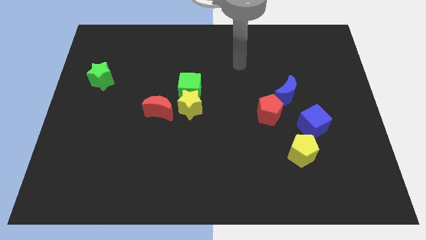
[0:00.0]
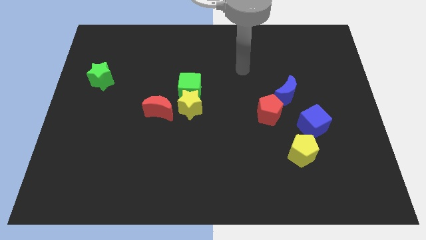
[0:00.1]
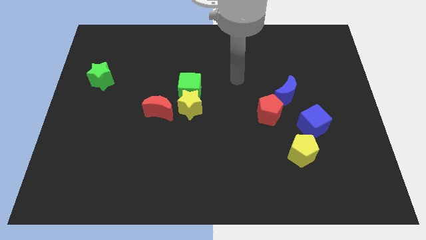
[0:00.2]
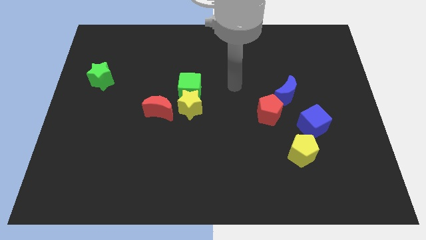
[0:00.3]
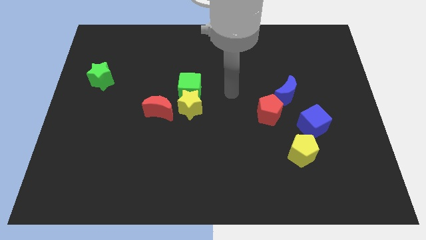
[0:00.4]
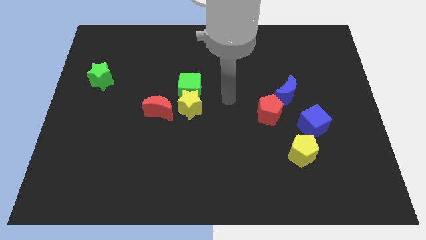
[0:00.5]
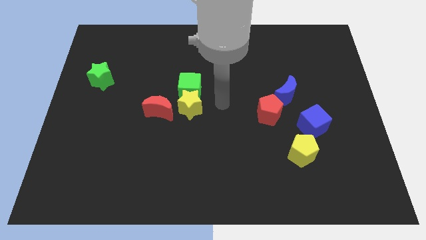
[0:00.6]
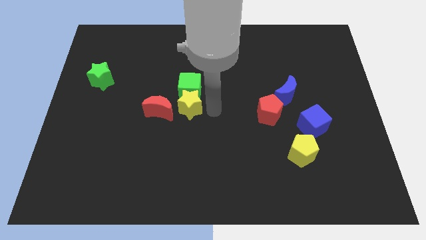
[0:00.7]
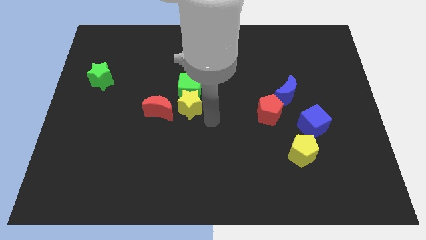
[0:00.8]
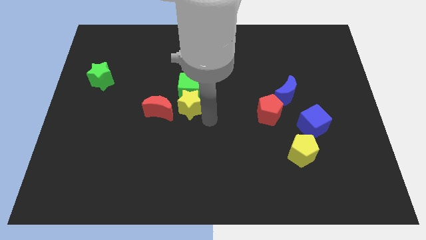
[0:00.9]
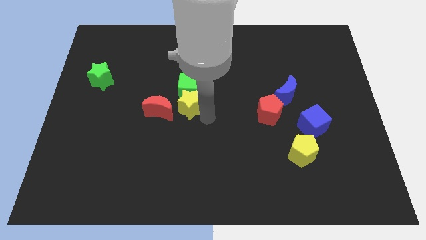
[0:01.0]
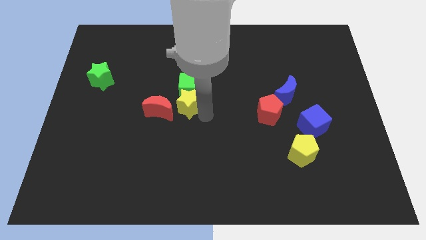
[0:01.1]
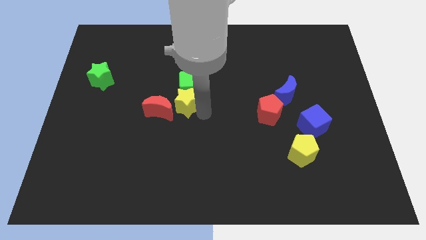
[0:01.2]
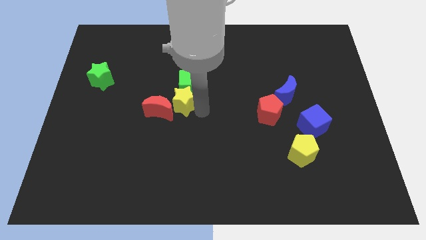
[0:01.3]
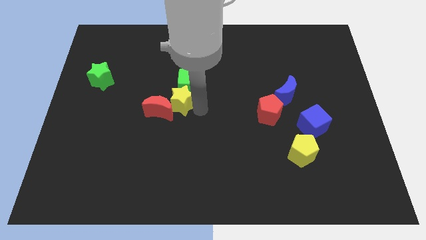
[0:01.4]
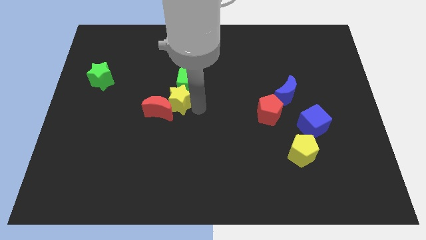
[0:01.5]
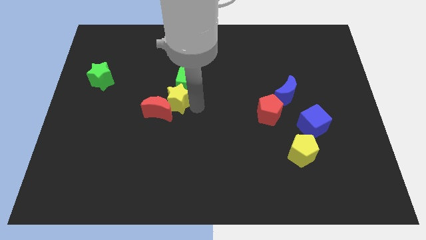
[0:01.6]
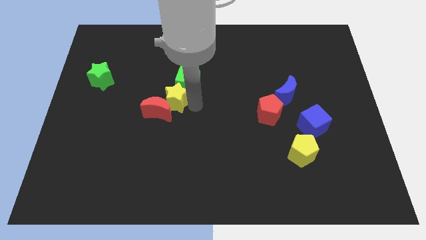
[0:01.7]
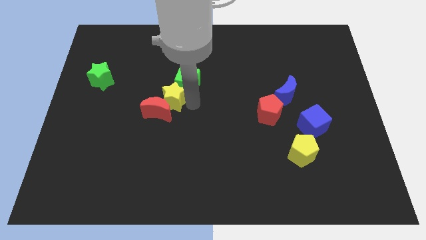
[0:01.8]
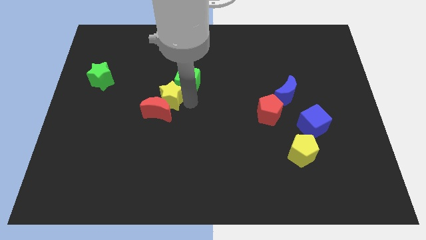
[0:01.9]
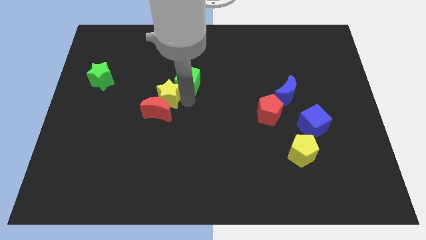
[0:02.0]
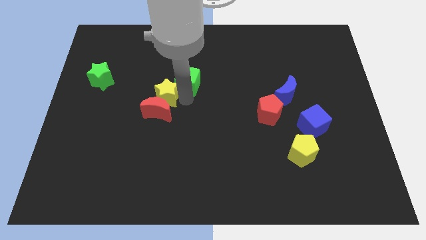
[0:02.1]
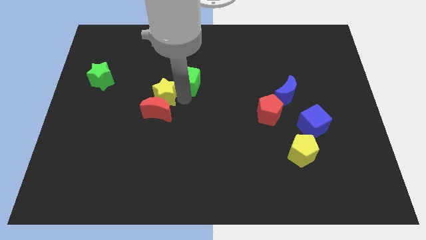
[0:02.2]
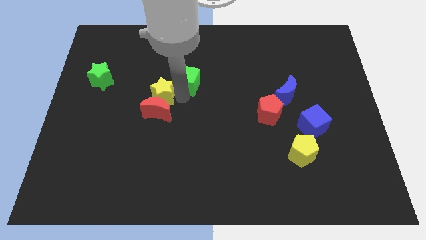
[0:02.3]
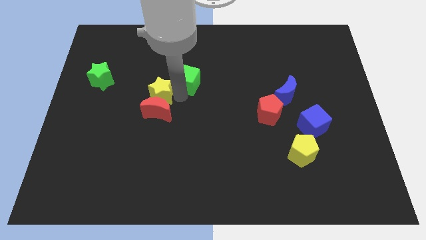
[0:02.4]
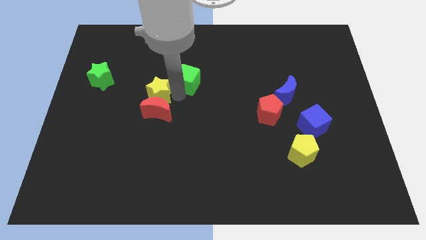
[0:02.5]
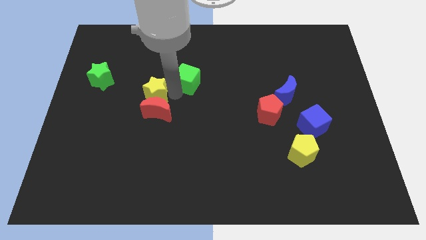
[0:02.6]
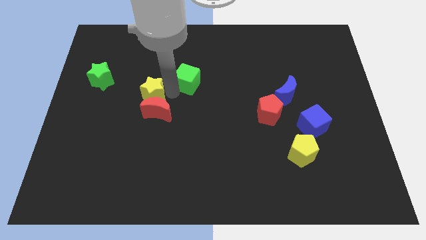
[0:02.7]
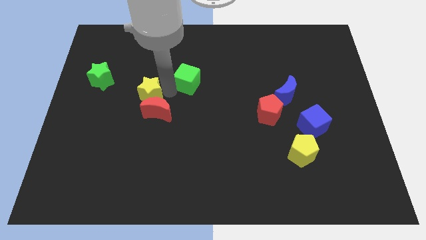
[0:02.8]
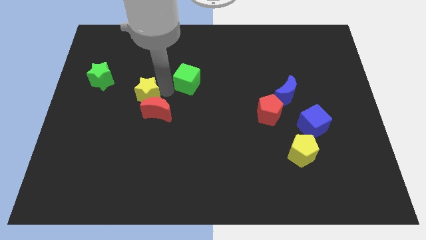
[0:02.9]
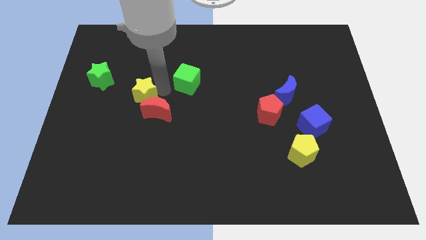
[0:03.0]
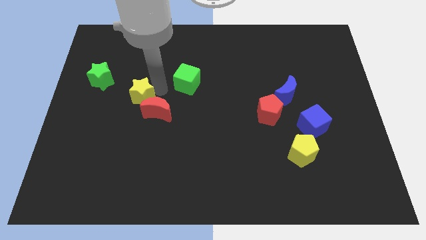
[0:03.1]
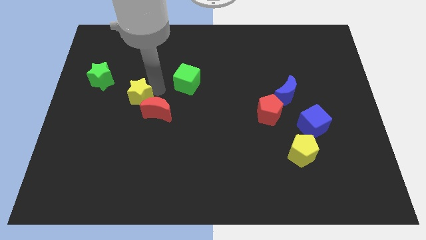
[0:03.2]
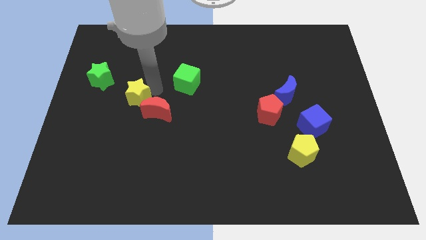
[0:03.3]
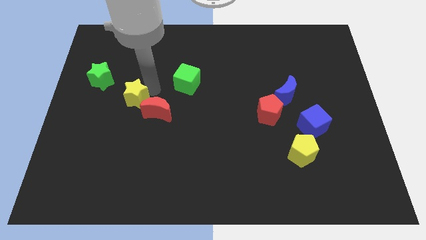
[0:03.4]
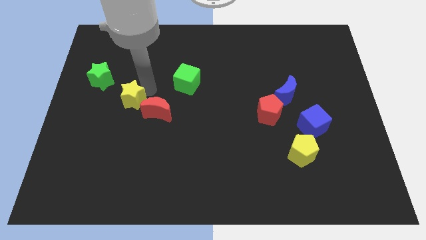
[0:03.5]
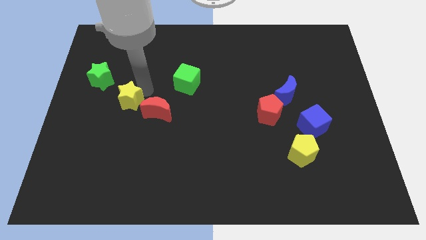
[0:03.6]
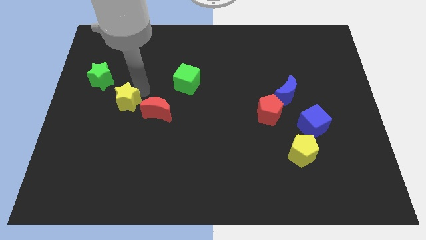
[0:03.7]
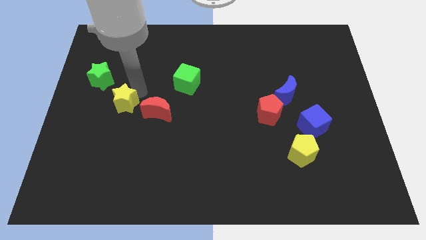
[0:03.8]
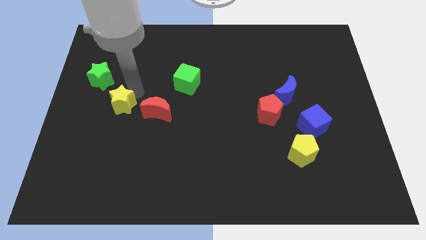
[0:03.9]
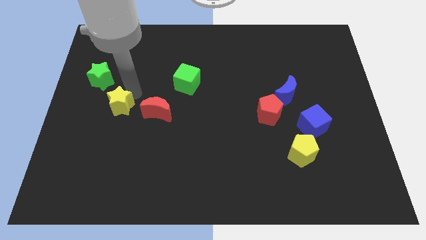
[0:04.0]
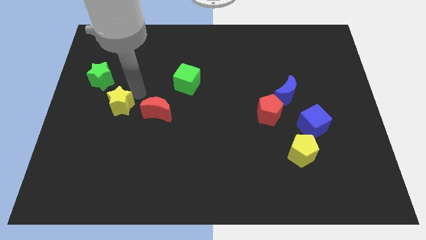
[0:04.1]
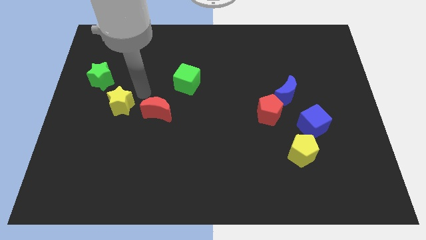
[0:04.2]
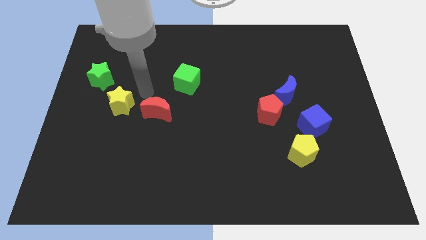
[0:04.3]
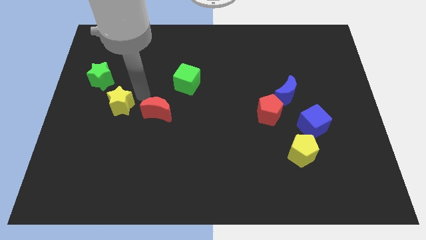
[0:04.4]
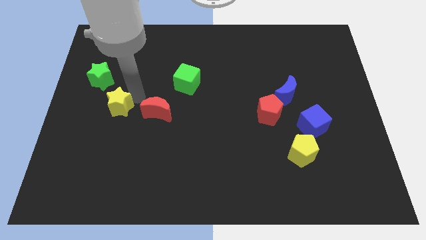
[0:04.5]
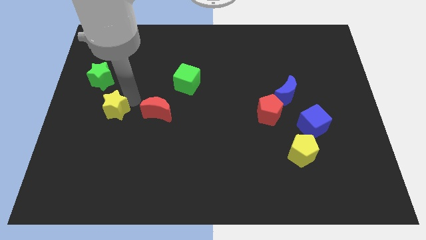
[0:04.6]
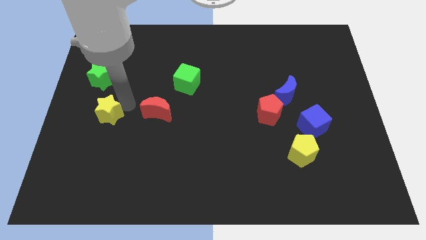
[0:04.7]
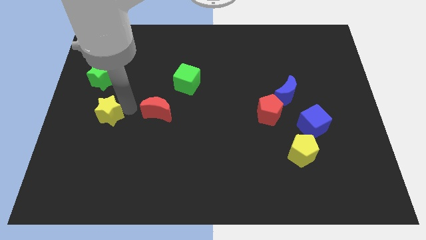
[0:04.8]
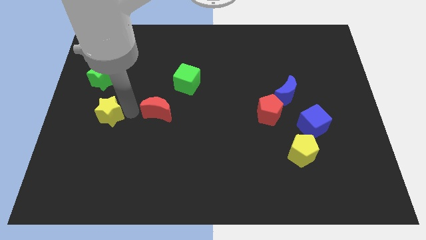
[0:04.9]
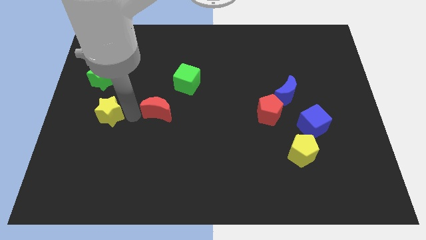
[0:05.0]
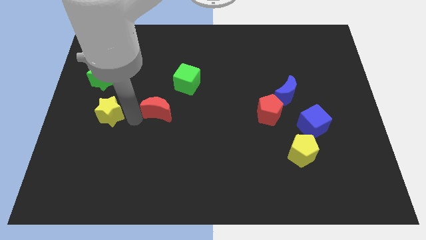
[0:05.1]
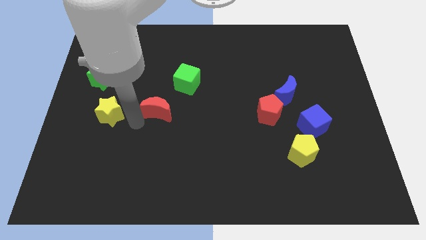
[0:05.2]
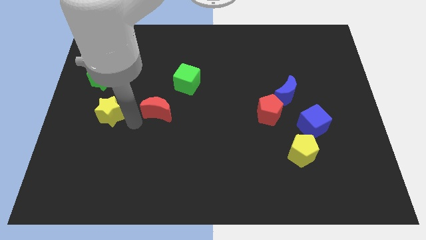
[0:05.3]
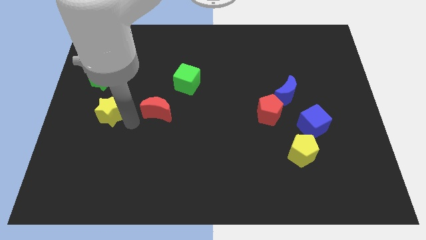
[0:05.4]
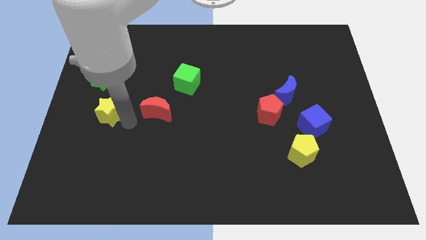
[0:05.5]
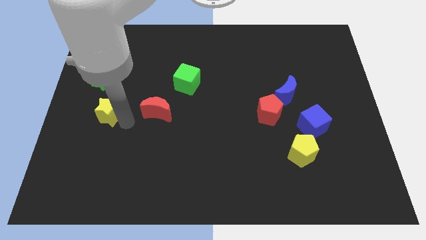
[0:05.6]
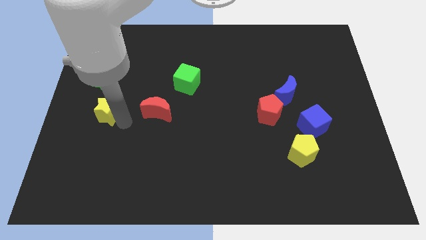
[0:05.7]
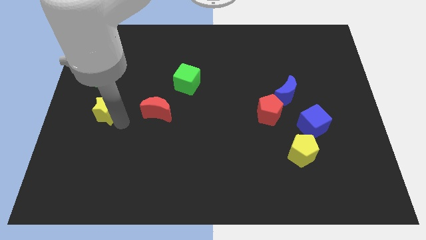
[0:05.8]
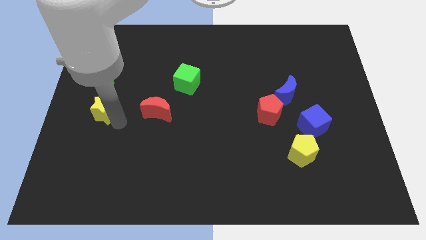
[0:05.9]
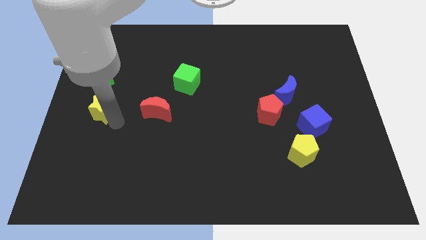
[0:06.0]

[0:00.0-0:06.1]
put the yellow star to the center left

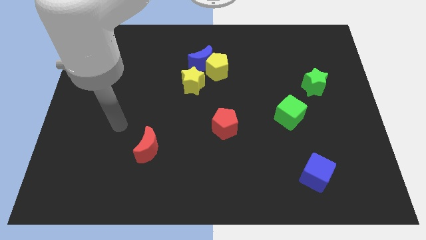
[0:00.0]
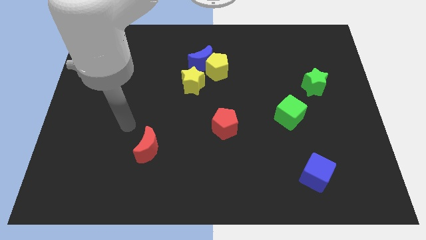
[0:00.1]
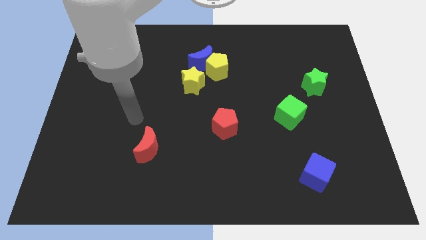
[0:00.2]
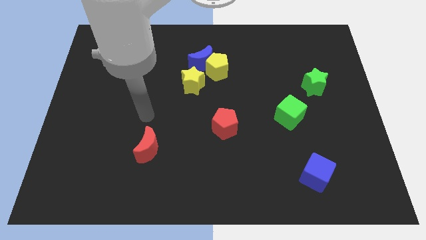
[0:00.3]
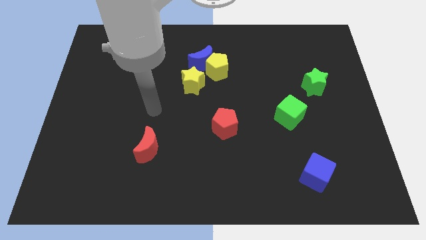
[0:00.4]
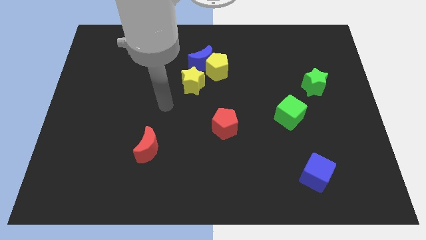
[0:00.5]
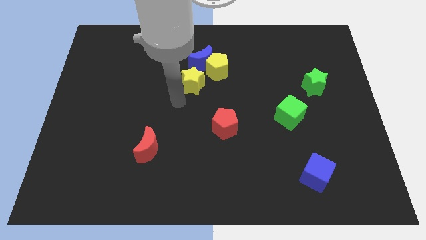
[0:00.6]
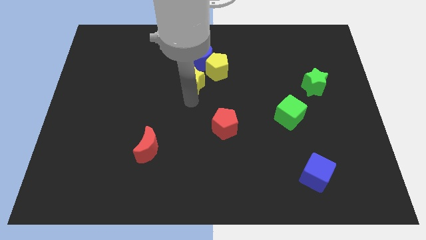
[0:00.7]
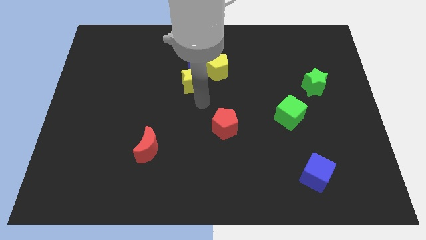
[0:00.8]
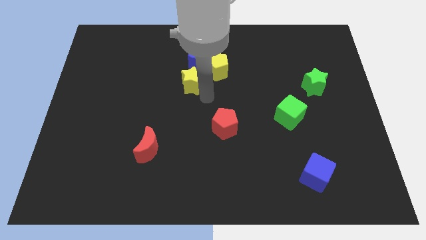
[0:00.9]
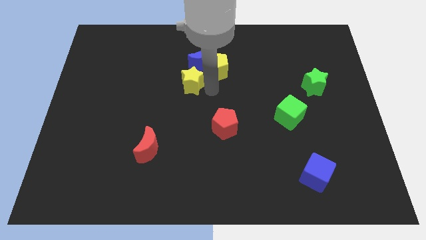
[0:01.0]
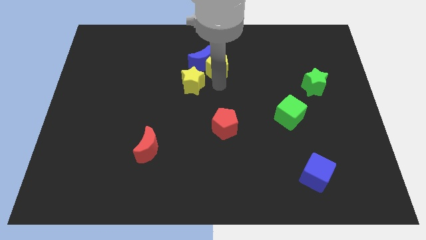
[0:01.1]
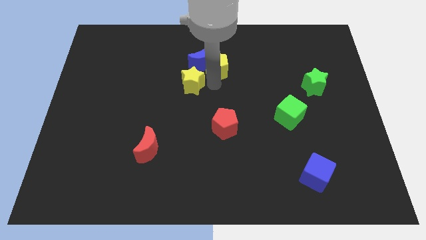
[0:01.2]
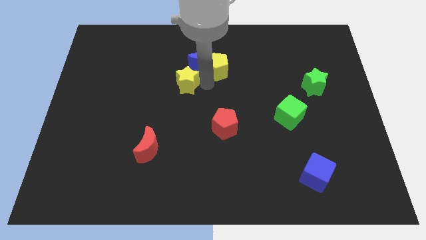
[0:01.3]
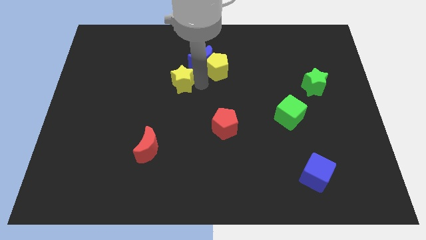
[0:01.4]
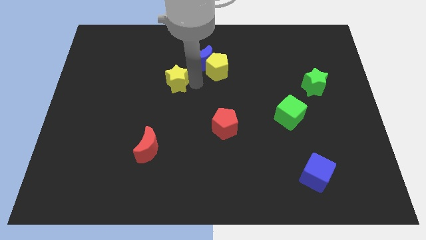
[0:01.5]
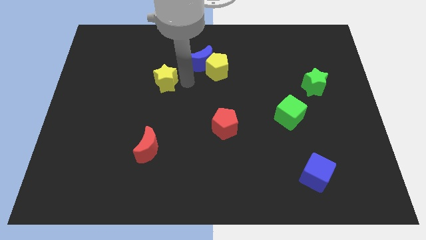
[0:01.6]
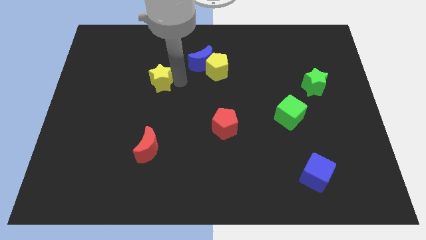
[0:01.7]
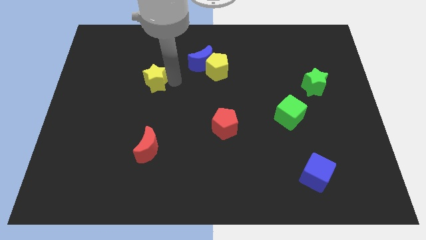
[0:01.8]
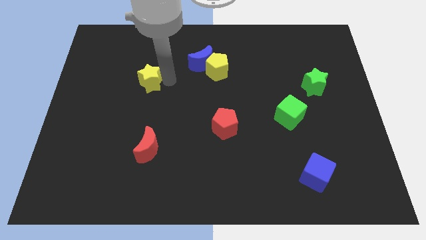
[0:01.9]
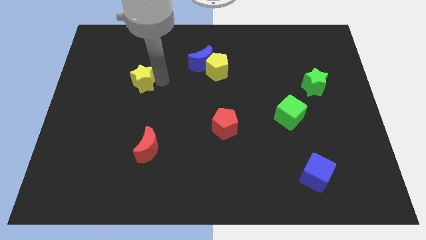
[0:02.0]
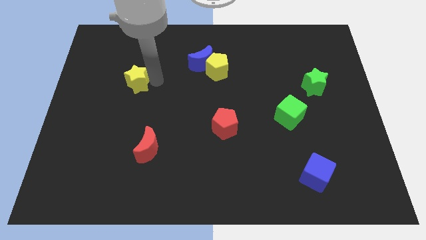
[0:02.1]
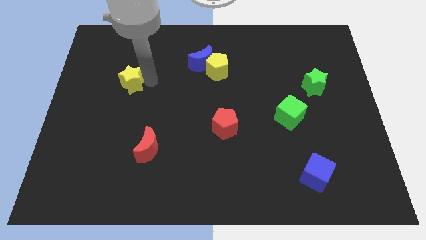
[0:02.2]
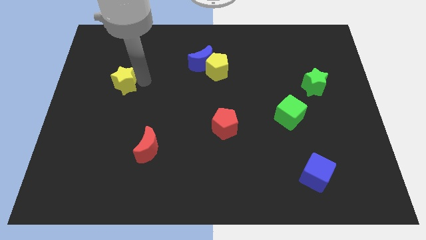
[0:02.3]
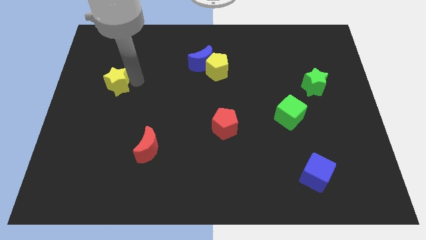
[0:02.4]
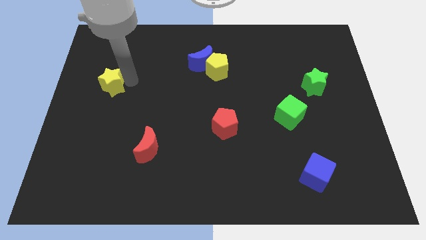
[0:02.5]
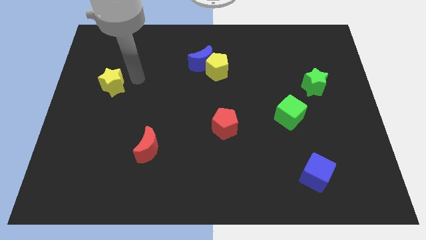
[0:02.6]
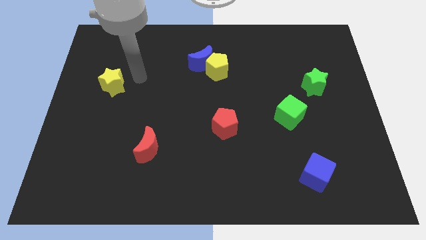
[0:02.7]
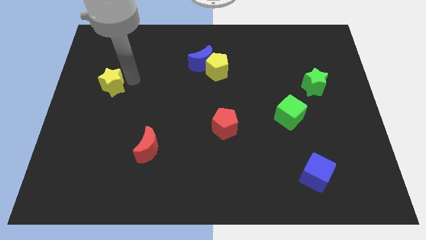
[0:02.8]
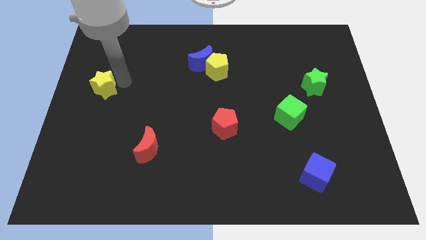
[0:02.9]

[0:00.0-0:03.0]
move the yellow star to the left side
